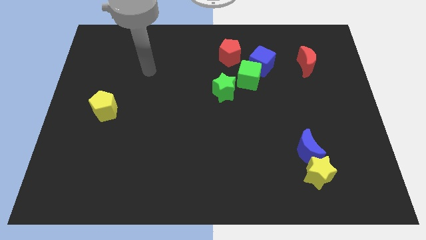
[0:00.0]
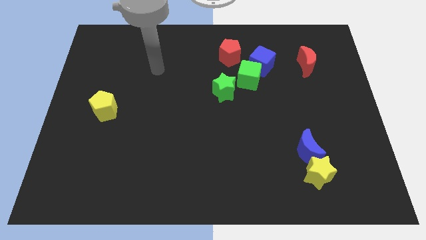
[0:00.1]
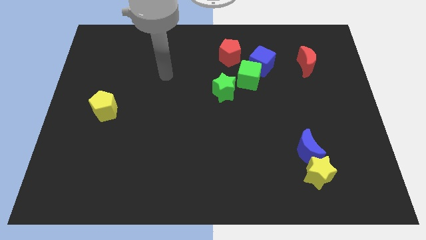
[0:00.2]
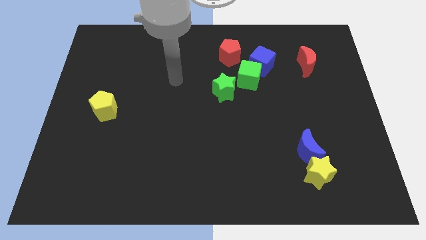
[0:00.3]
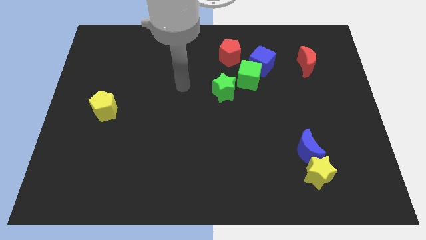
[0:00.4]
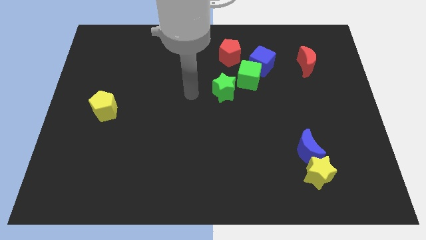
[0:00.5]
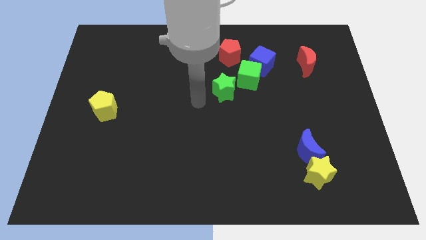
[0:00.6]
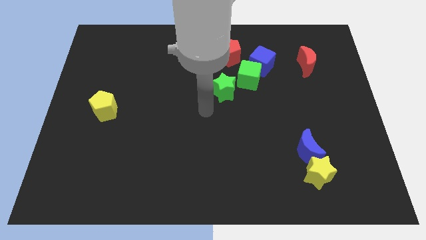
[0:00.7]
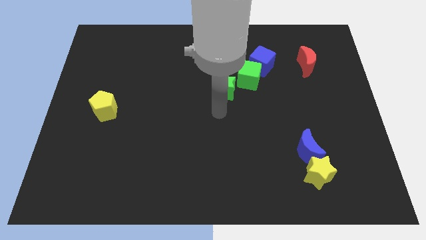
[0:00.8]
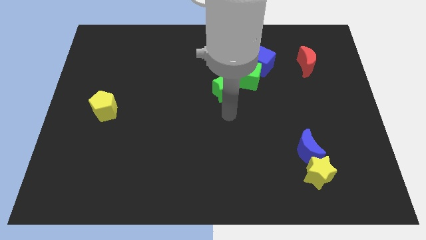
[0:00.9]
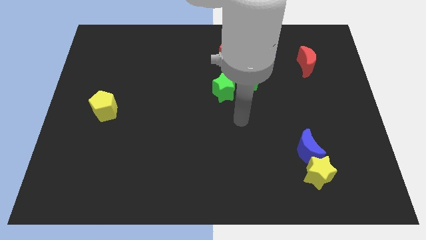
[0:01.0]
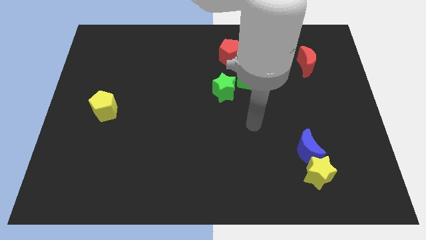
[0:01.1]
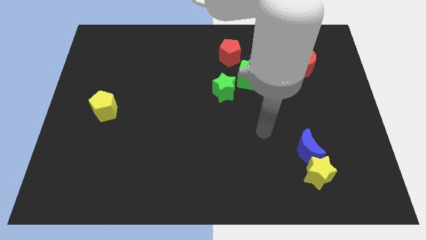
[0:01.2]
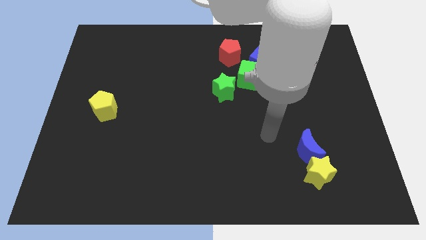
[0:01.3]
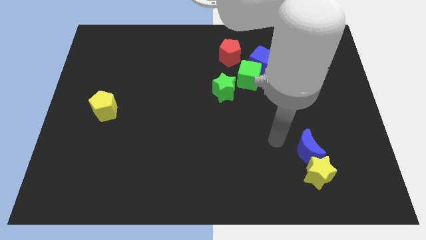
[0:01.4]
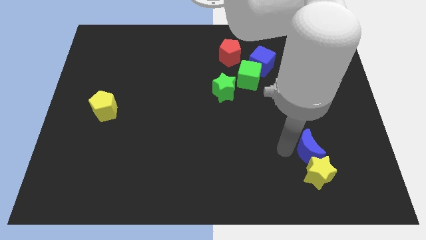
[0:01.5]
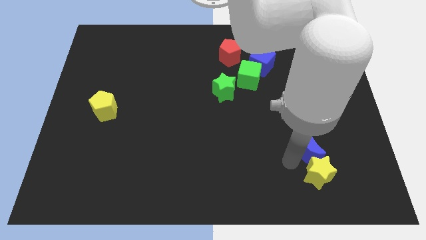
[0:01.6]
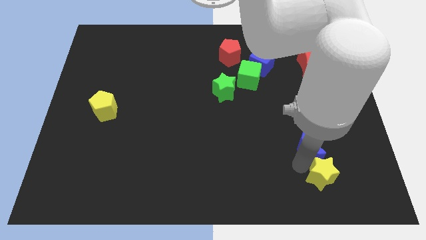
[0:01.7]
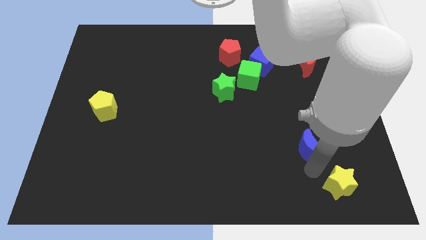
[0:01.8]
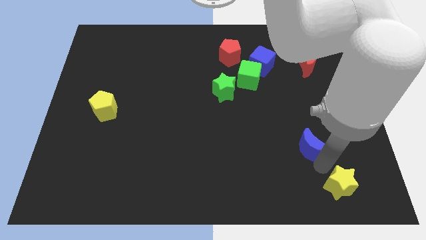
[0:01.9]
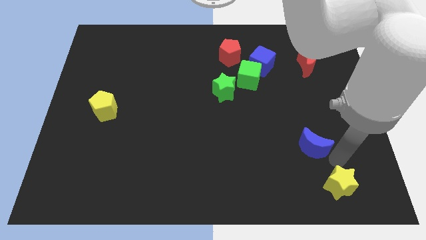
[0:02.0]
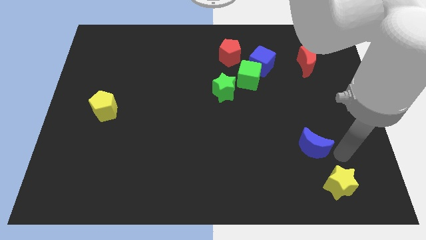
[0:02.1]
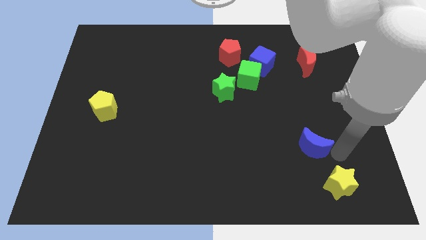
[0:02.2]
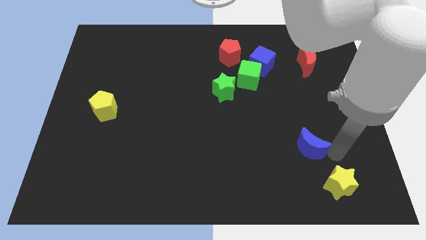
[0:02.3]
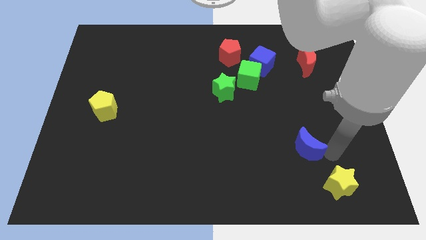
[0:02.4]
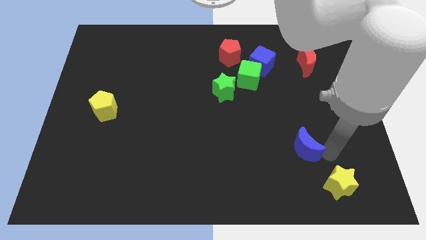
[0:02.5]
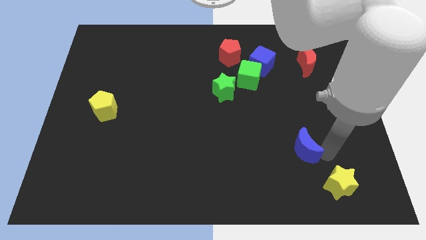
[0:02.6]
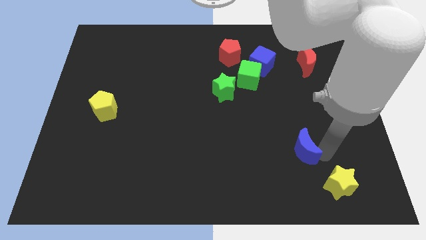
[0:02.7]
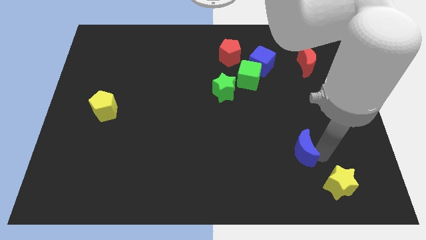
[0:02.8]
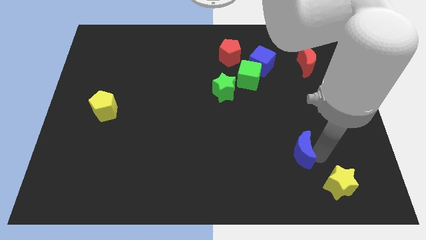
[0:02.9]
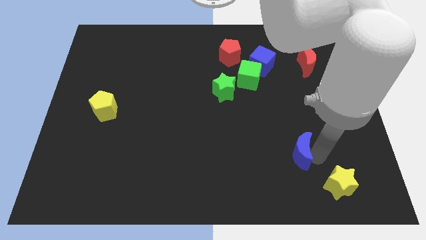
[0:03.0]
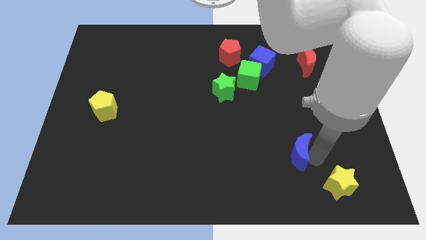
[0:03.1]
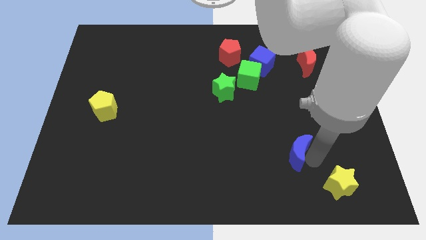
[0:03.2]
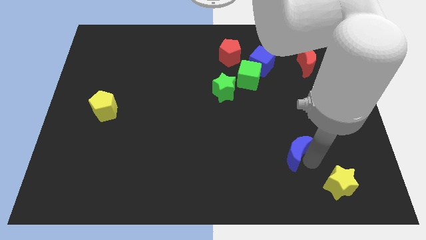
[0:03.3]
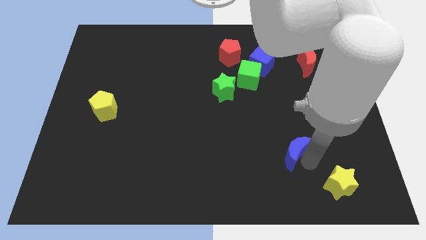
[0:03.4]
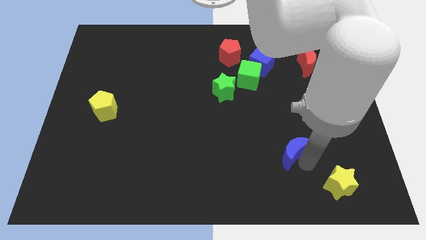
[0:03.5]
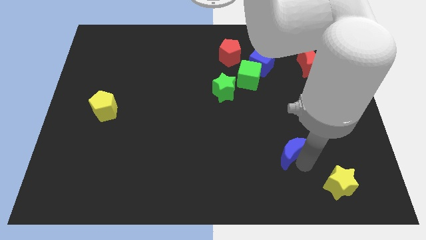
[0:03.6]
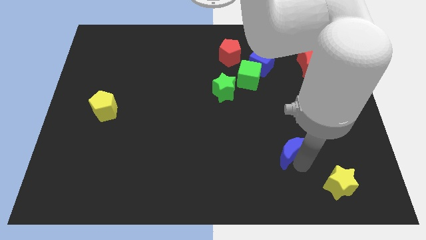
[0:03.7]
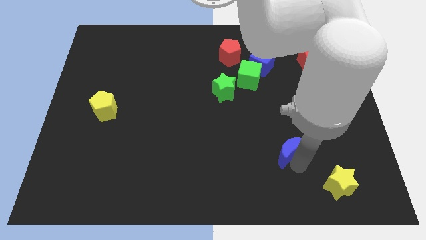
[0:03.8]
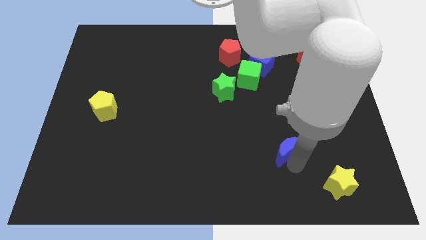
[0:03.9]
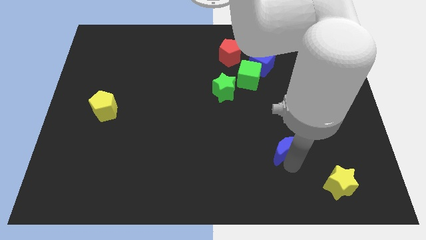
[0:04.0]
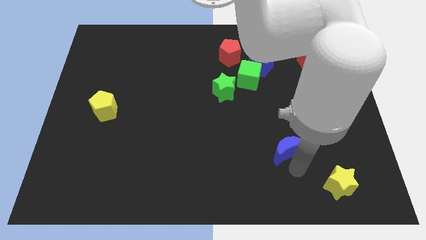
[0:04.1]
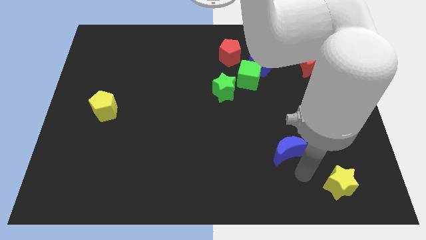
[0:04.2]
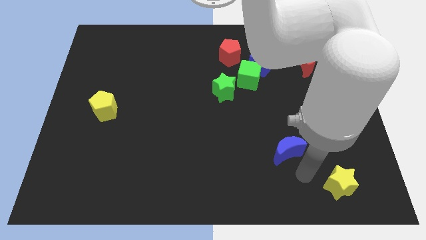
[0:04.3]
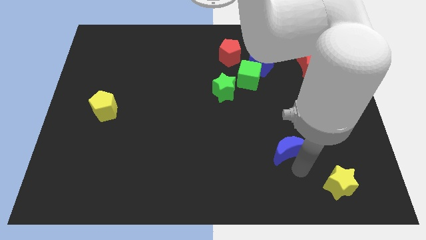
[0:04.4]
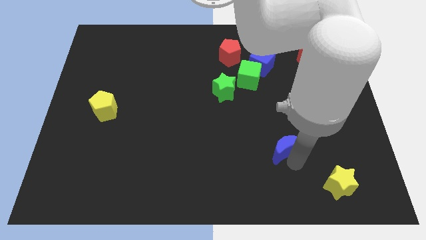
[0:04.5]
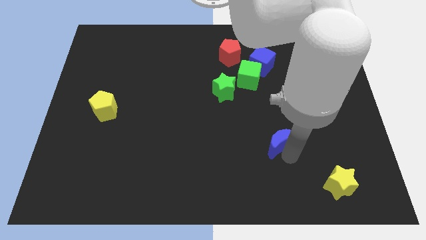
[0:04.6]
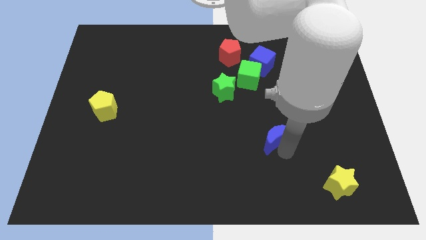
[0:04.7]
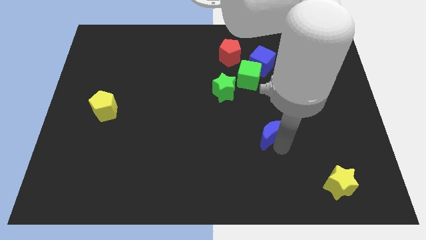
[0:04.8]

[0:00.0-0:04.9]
move the blue moon slightly diagonally upwards and left

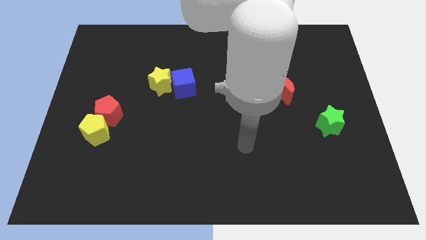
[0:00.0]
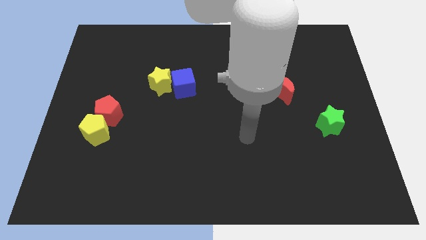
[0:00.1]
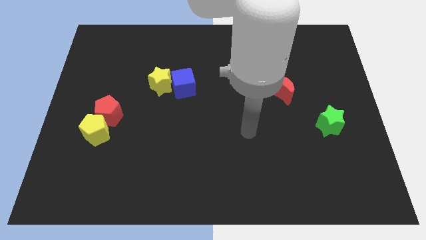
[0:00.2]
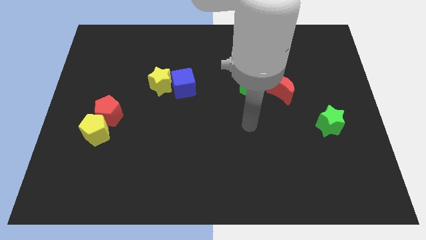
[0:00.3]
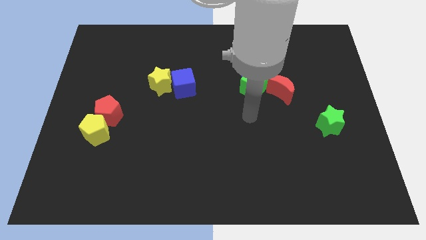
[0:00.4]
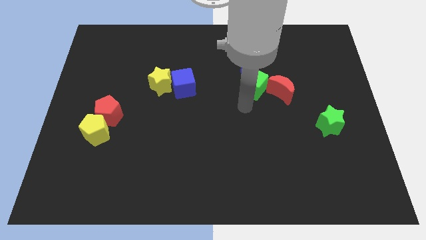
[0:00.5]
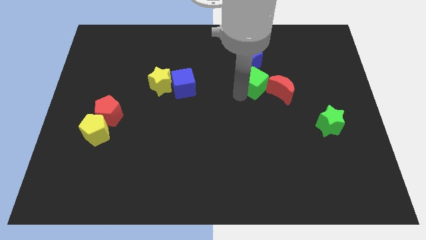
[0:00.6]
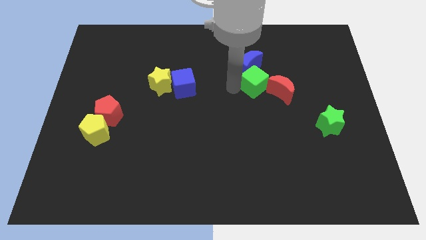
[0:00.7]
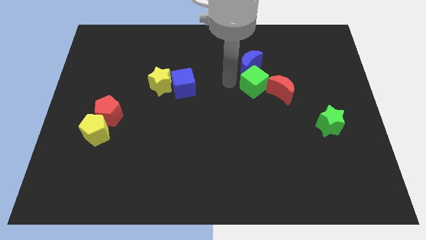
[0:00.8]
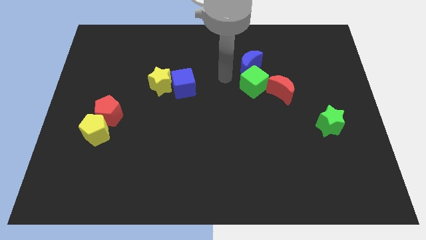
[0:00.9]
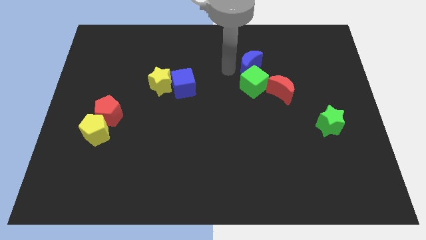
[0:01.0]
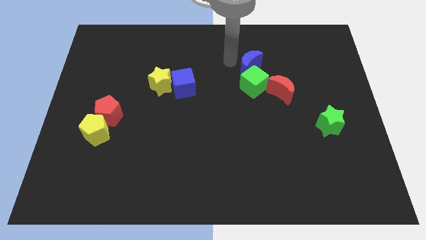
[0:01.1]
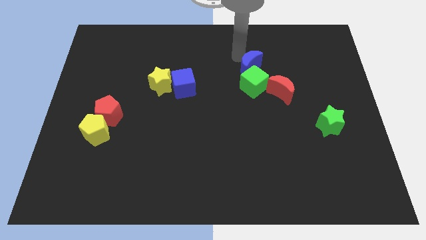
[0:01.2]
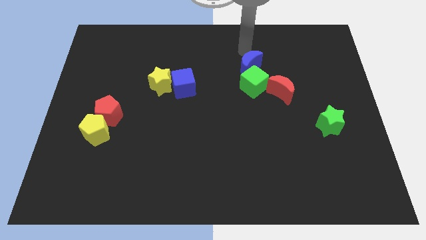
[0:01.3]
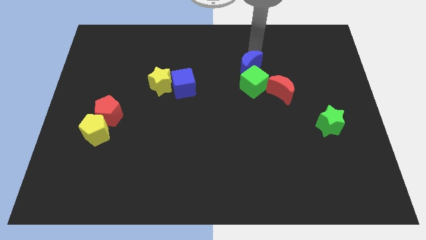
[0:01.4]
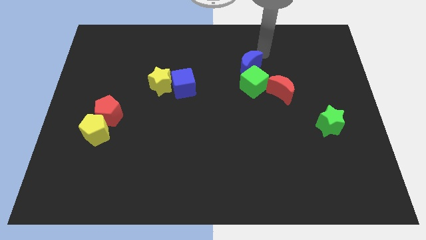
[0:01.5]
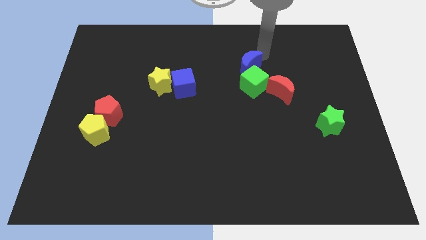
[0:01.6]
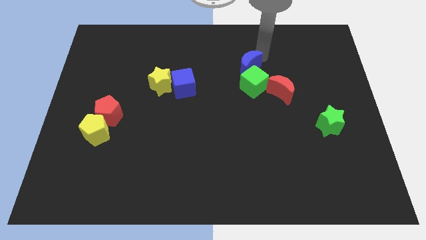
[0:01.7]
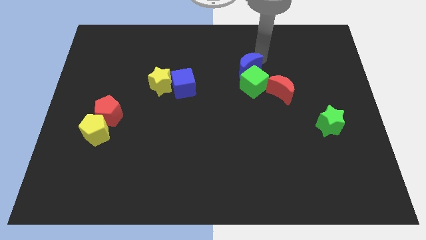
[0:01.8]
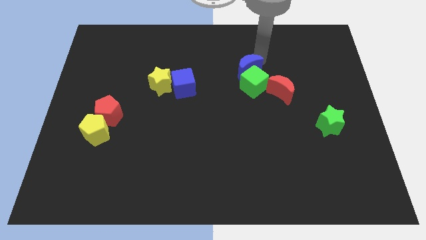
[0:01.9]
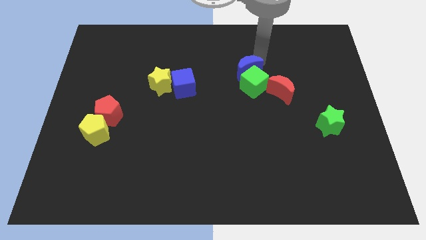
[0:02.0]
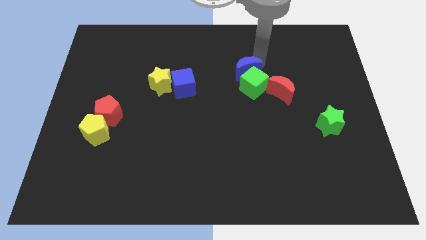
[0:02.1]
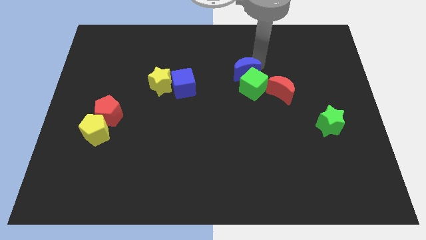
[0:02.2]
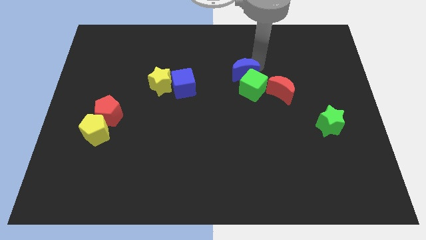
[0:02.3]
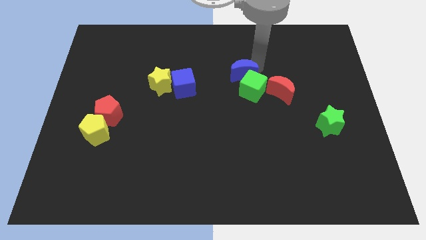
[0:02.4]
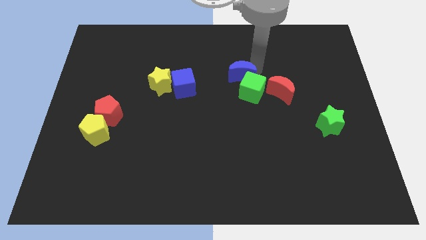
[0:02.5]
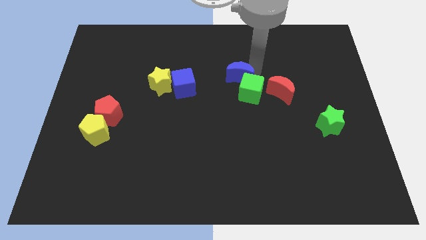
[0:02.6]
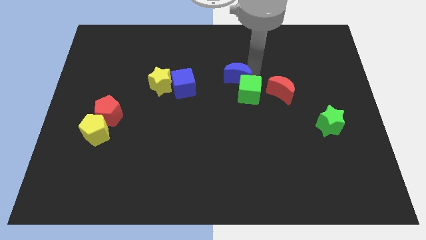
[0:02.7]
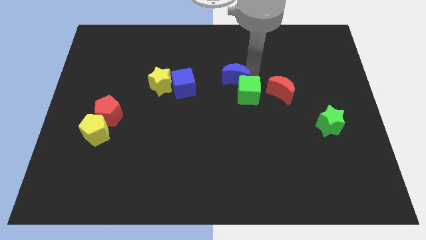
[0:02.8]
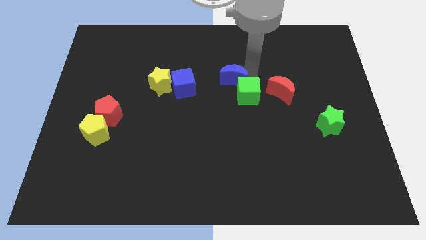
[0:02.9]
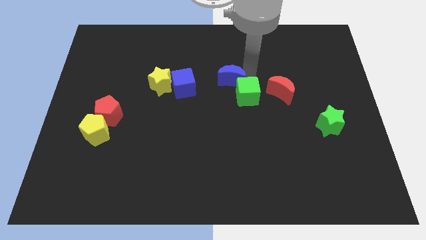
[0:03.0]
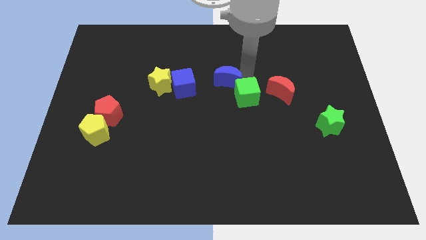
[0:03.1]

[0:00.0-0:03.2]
slide the blue moon a little downwards and to the left

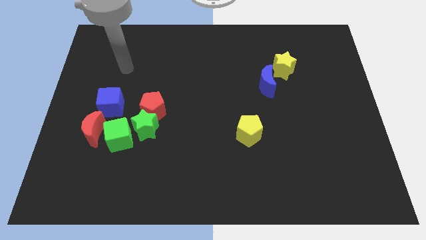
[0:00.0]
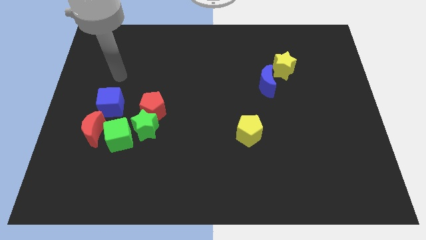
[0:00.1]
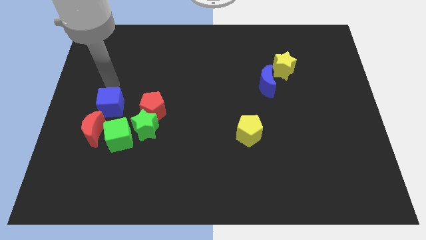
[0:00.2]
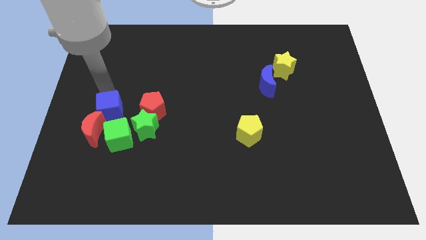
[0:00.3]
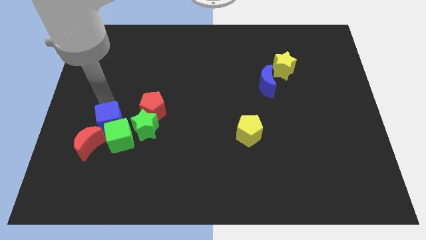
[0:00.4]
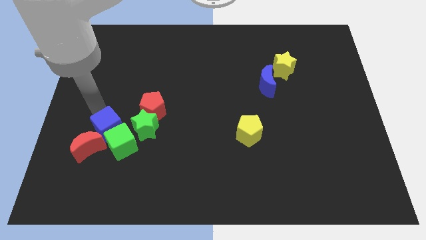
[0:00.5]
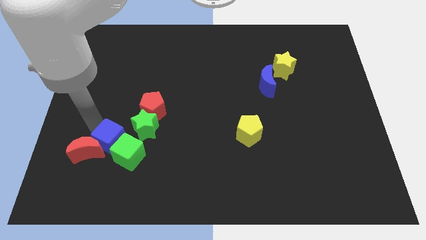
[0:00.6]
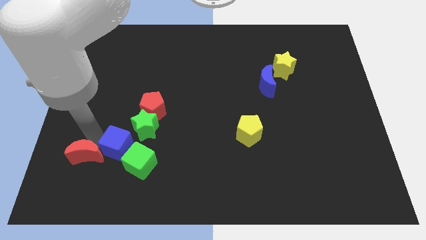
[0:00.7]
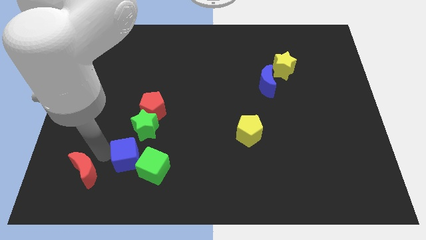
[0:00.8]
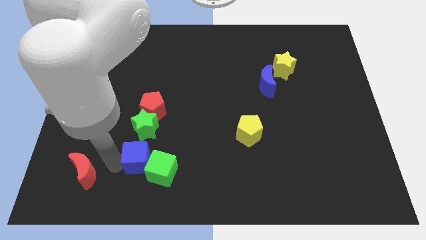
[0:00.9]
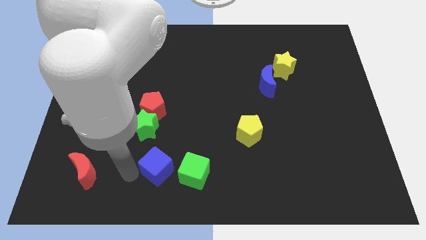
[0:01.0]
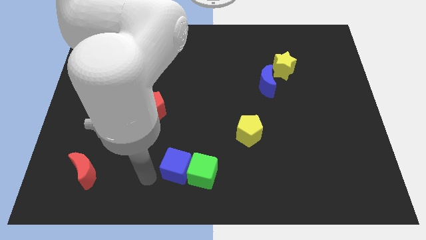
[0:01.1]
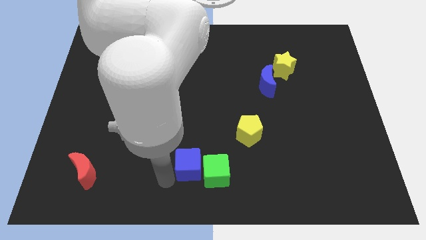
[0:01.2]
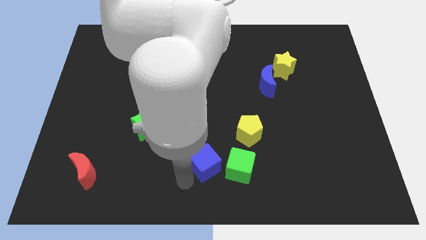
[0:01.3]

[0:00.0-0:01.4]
move the green cube to the right
